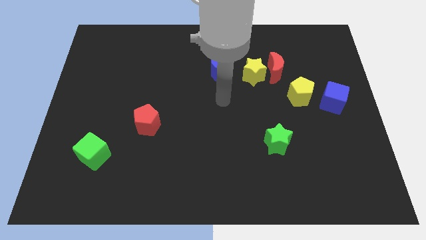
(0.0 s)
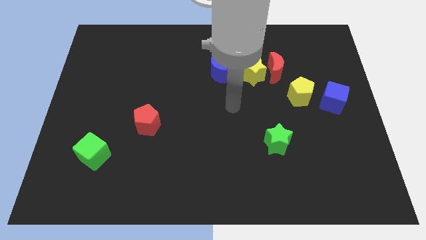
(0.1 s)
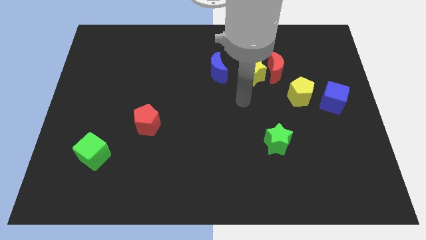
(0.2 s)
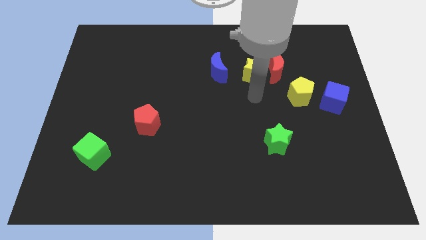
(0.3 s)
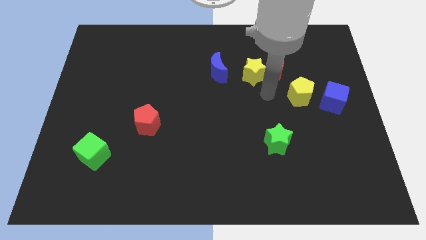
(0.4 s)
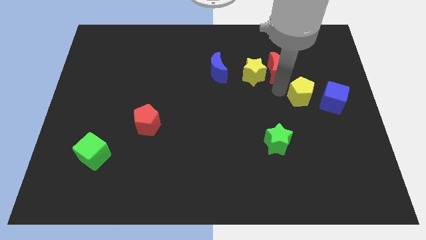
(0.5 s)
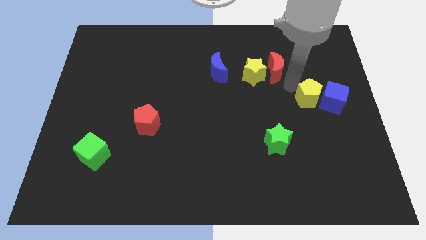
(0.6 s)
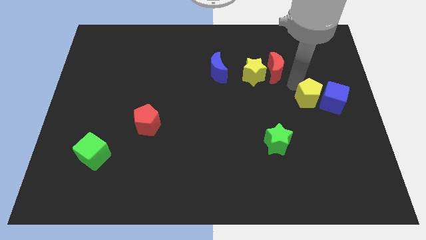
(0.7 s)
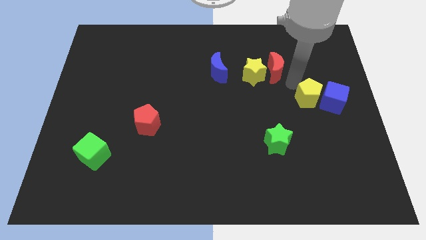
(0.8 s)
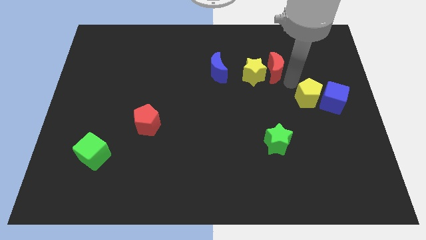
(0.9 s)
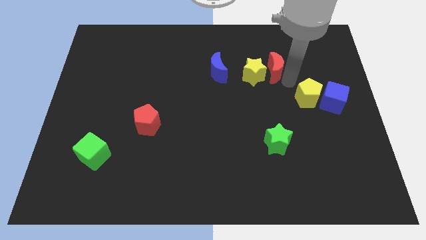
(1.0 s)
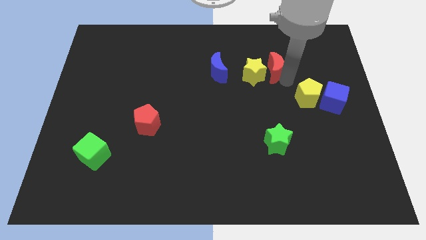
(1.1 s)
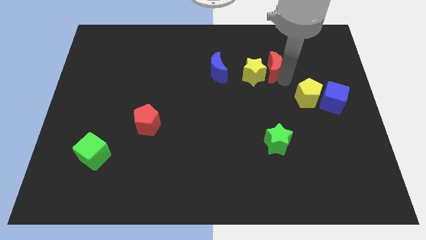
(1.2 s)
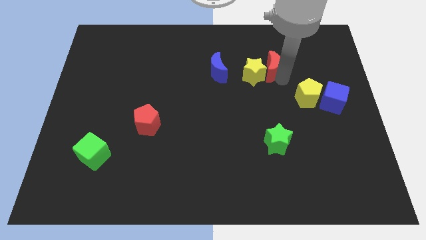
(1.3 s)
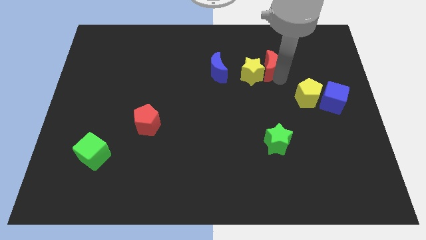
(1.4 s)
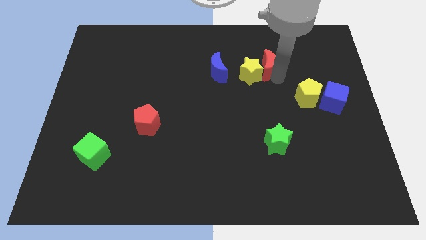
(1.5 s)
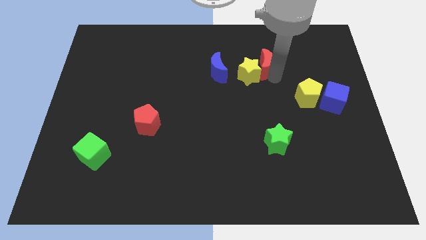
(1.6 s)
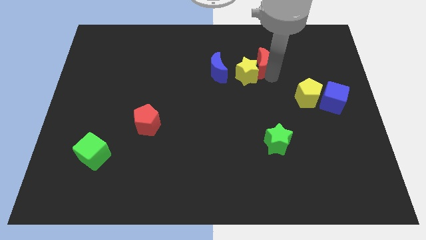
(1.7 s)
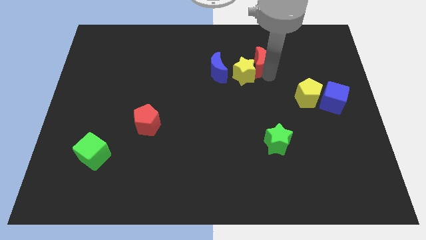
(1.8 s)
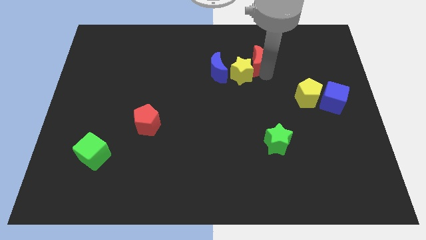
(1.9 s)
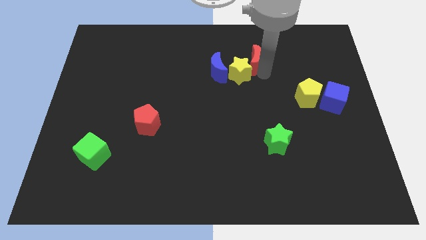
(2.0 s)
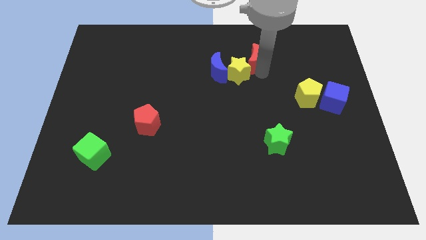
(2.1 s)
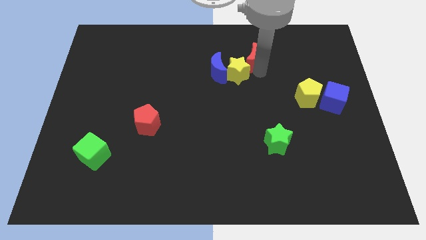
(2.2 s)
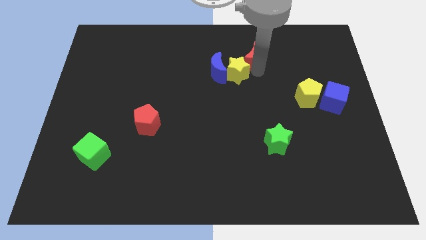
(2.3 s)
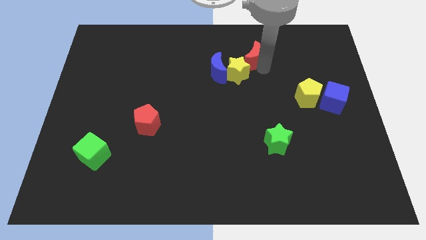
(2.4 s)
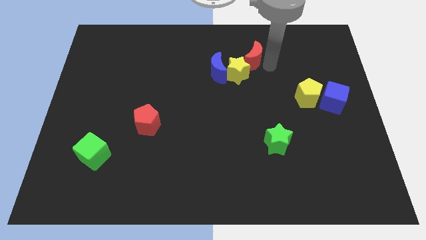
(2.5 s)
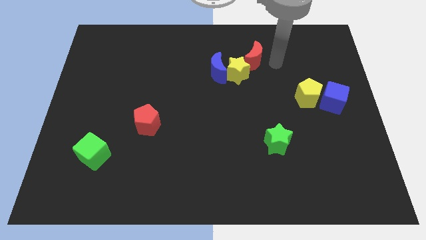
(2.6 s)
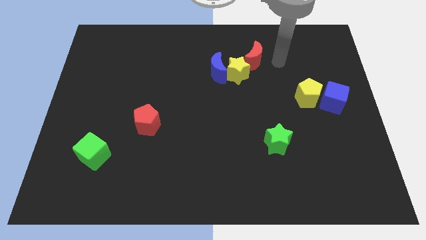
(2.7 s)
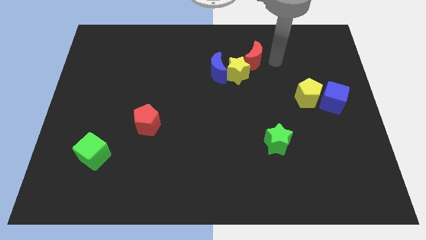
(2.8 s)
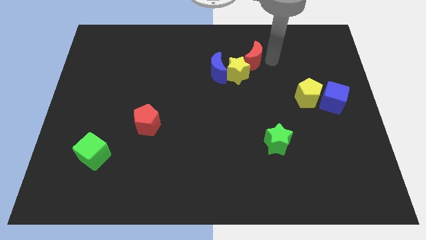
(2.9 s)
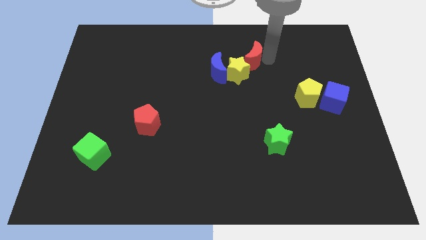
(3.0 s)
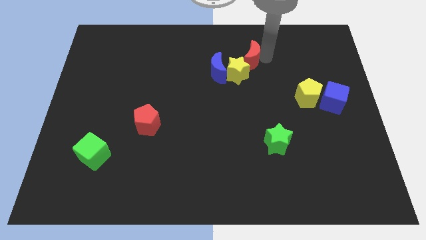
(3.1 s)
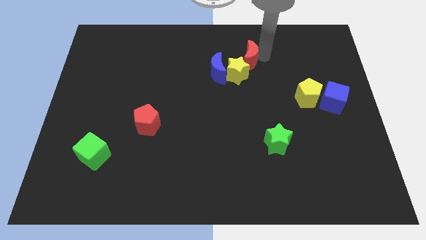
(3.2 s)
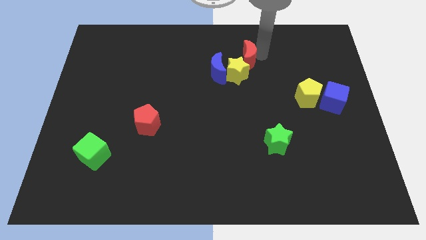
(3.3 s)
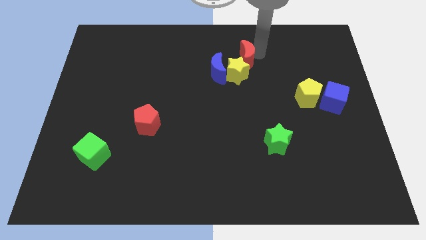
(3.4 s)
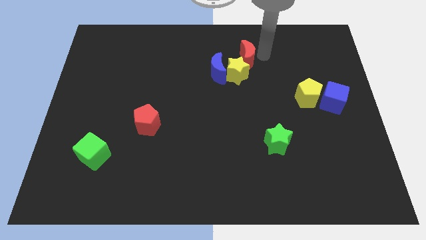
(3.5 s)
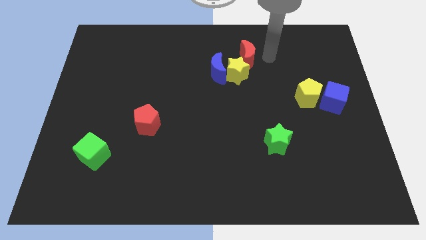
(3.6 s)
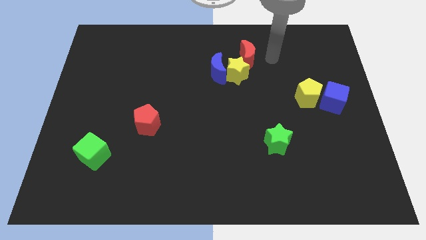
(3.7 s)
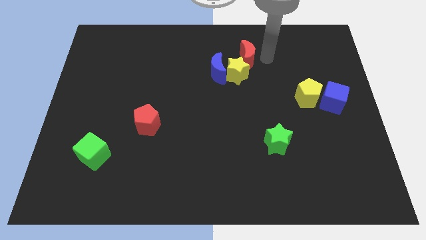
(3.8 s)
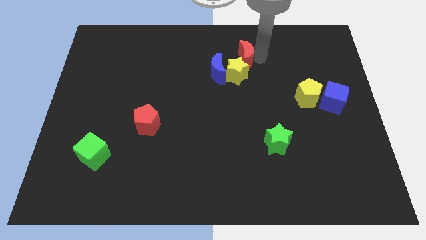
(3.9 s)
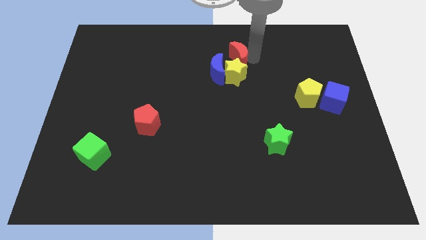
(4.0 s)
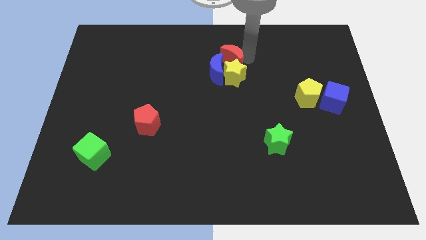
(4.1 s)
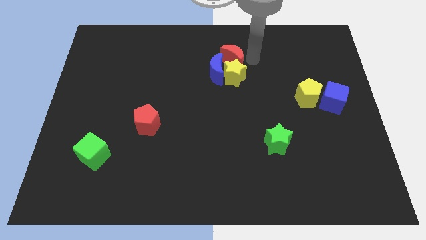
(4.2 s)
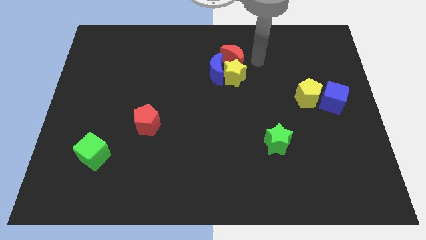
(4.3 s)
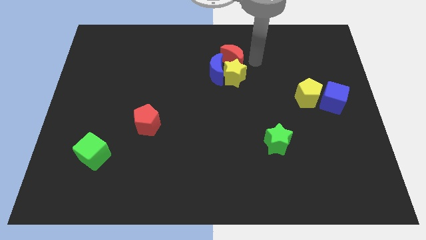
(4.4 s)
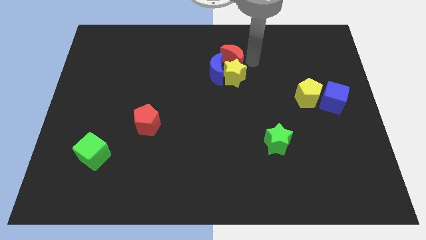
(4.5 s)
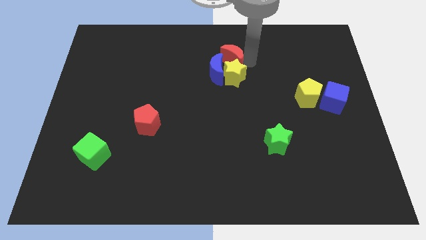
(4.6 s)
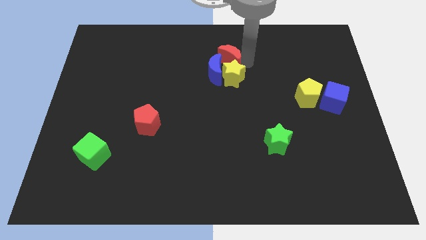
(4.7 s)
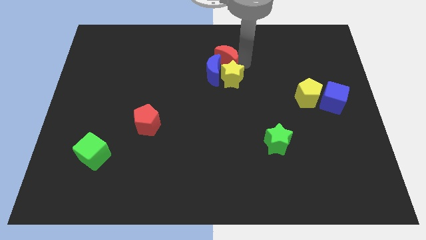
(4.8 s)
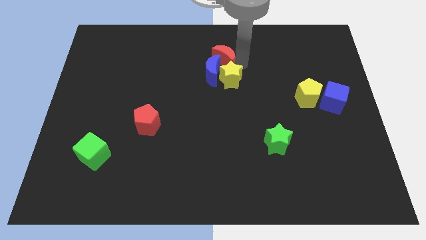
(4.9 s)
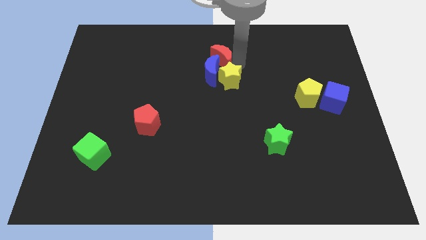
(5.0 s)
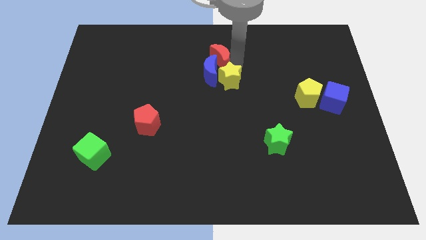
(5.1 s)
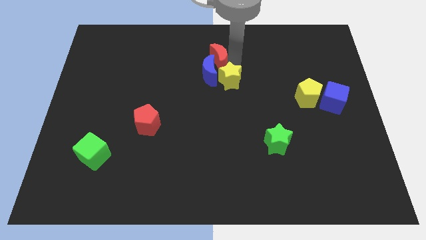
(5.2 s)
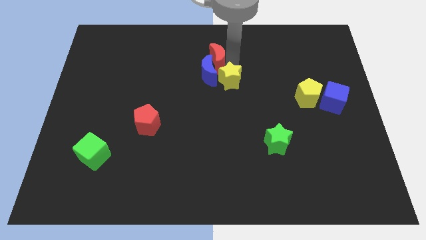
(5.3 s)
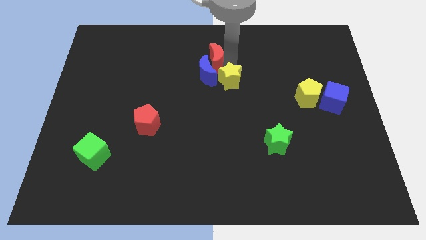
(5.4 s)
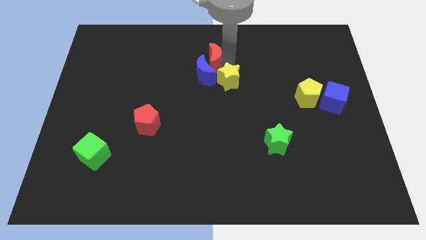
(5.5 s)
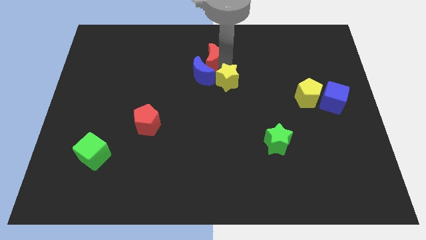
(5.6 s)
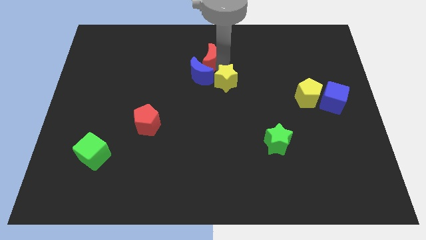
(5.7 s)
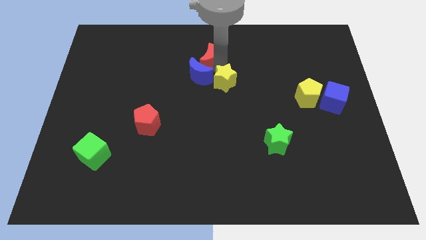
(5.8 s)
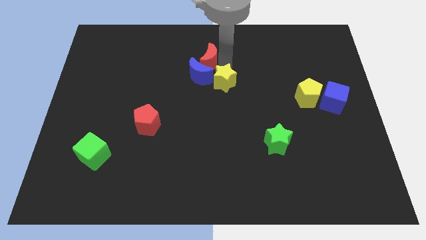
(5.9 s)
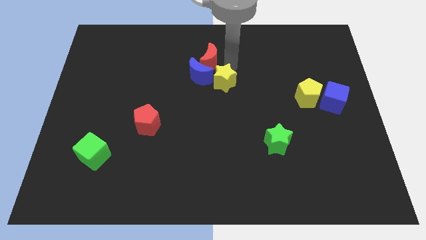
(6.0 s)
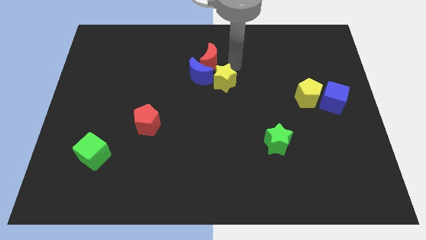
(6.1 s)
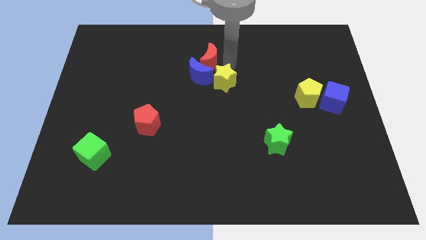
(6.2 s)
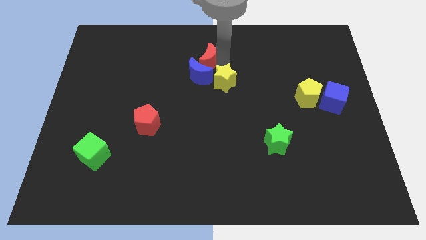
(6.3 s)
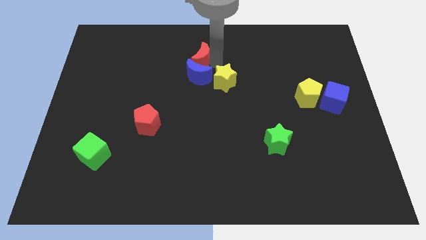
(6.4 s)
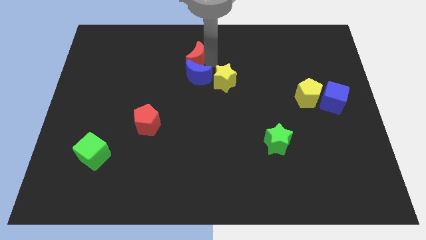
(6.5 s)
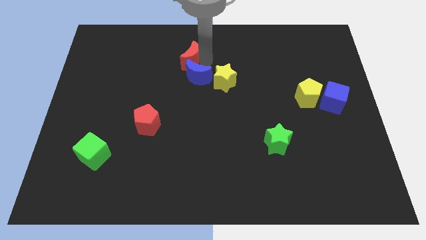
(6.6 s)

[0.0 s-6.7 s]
push the red moon to the left

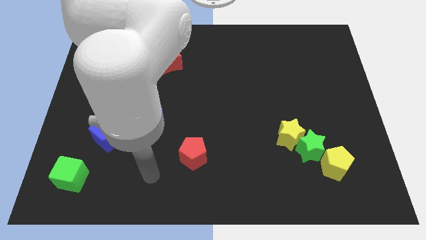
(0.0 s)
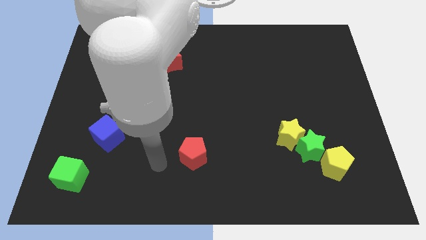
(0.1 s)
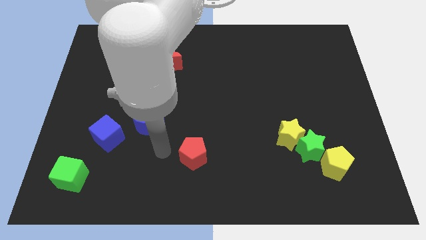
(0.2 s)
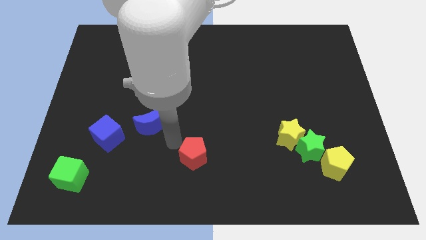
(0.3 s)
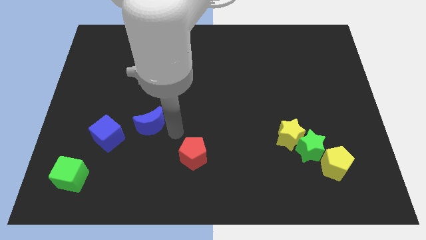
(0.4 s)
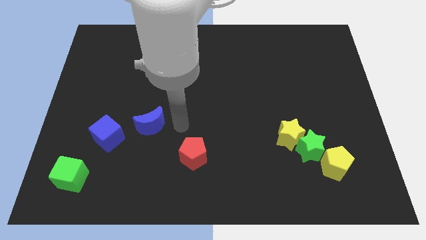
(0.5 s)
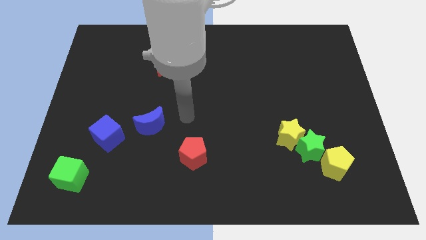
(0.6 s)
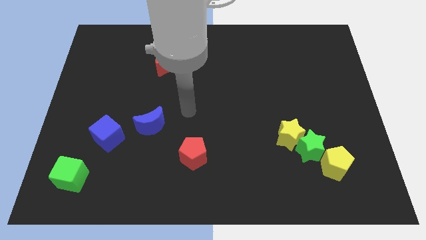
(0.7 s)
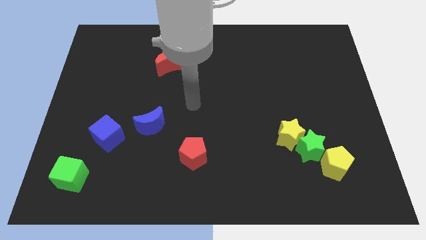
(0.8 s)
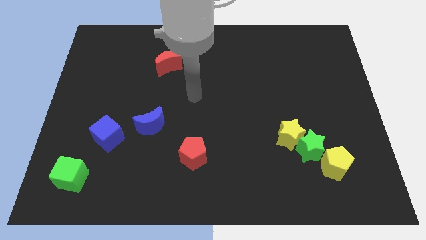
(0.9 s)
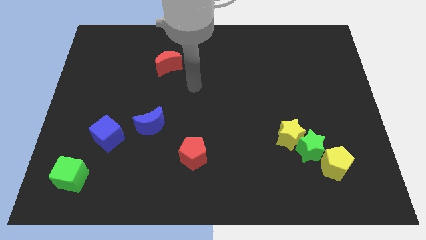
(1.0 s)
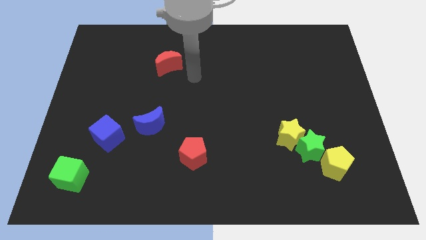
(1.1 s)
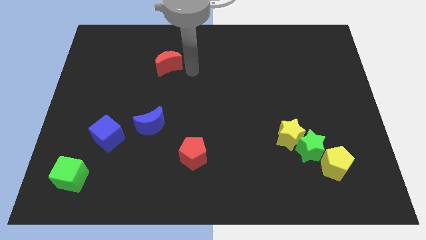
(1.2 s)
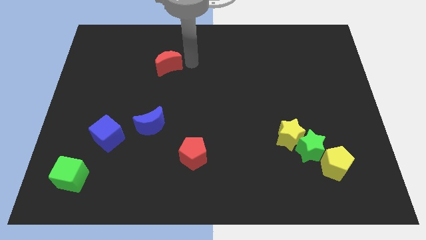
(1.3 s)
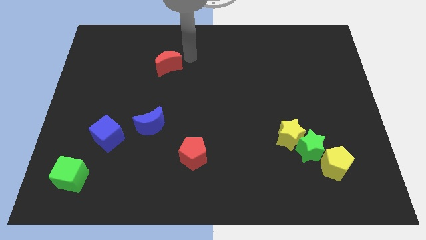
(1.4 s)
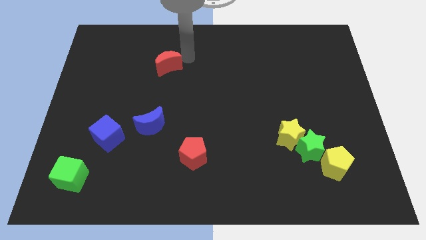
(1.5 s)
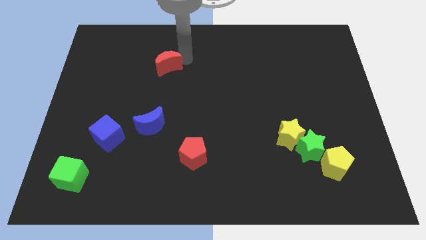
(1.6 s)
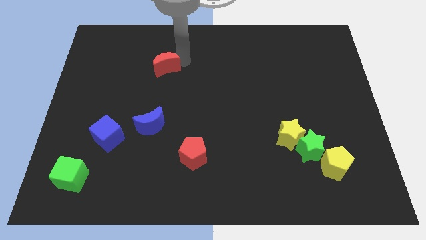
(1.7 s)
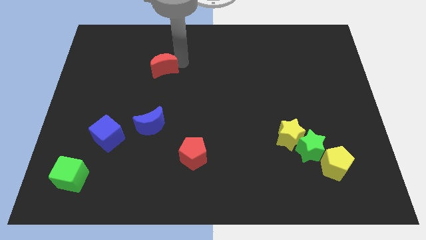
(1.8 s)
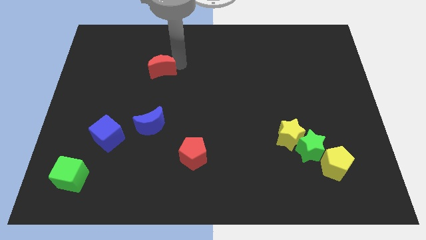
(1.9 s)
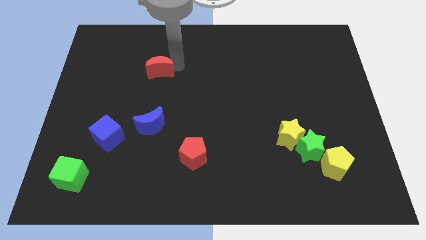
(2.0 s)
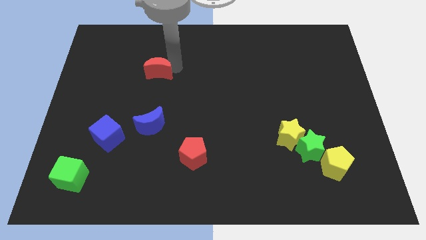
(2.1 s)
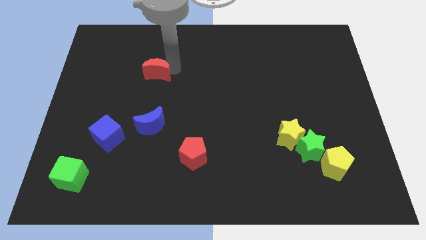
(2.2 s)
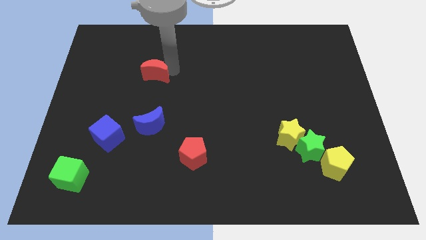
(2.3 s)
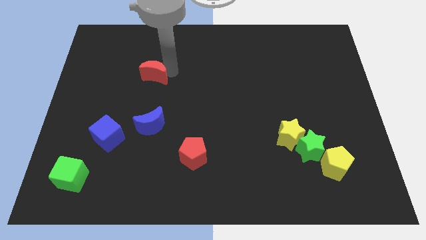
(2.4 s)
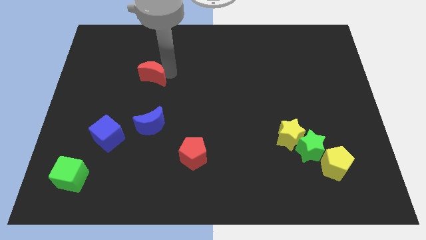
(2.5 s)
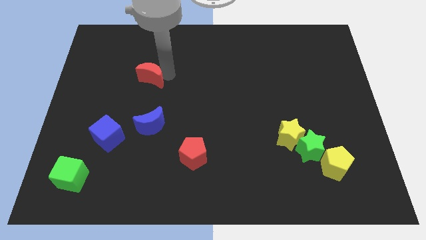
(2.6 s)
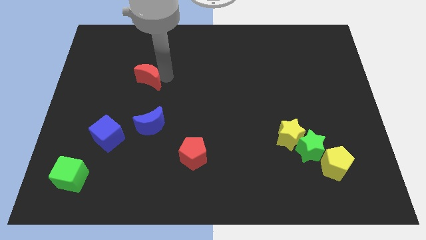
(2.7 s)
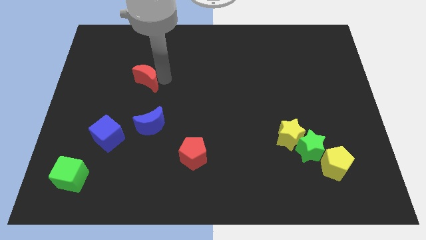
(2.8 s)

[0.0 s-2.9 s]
slide the red moon downwards and left somewhat
